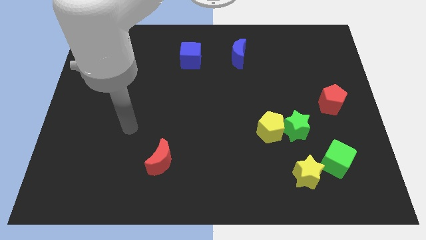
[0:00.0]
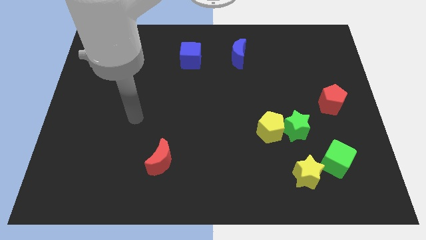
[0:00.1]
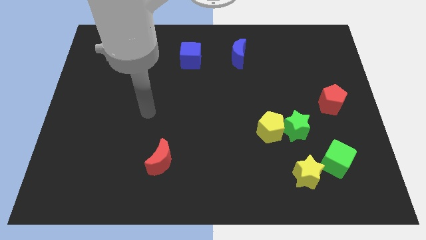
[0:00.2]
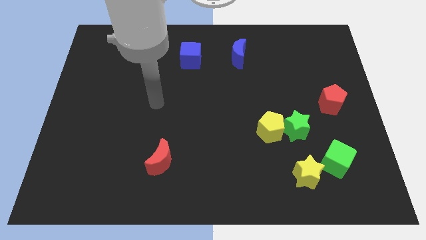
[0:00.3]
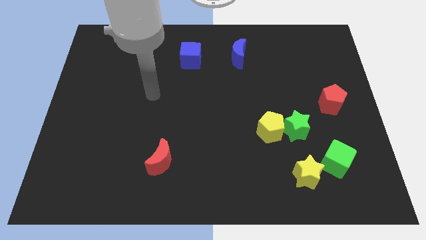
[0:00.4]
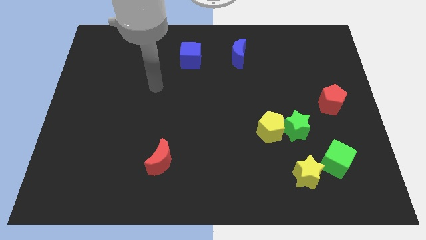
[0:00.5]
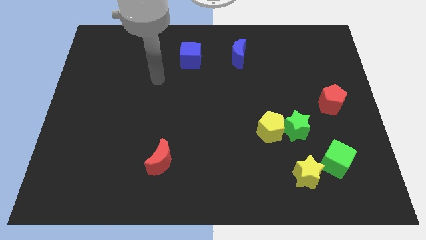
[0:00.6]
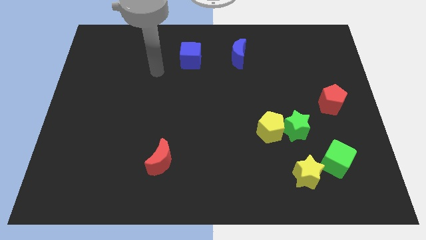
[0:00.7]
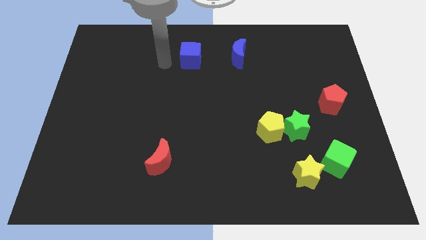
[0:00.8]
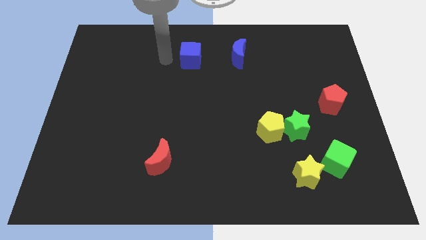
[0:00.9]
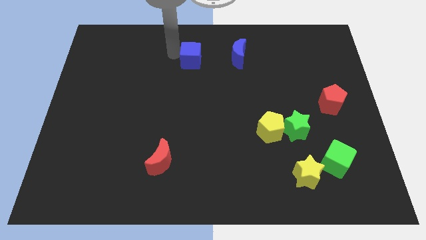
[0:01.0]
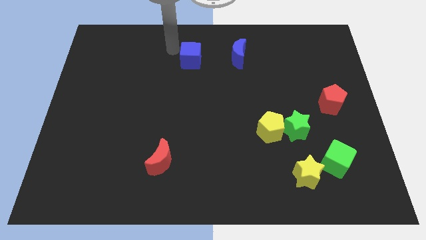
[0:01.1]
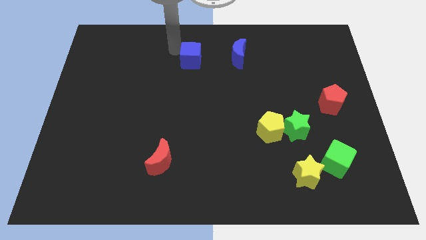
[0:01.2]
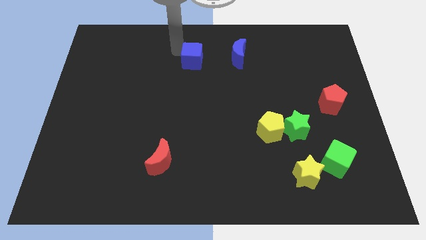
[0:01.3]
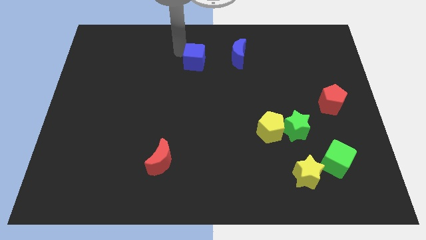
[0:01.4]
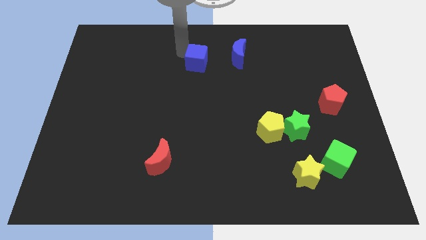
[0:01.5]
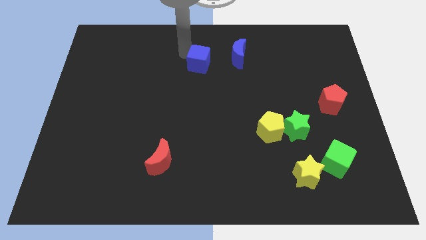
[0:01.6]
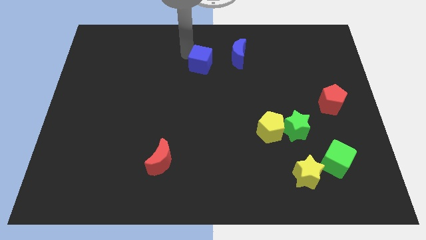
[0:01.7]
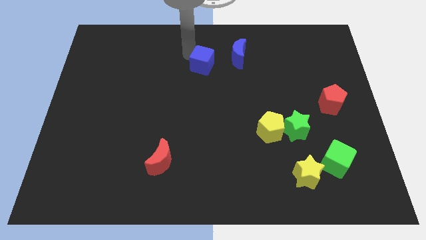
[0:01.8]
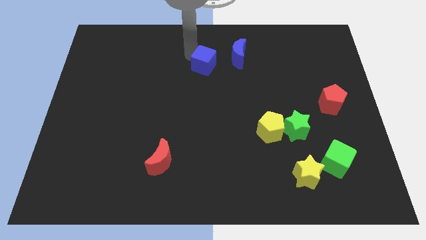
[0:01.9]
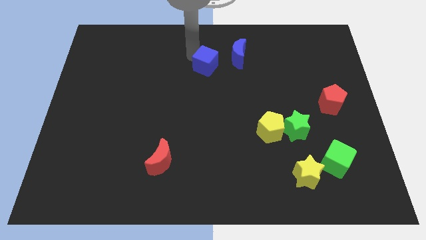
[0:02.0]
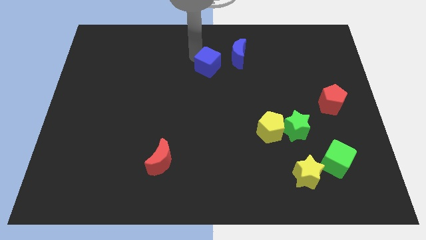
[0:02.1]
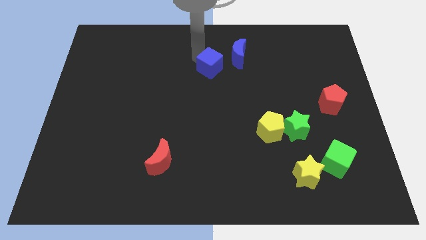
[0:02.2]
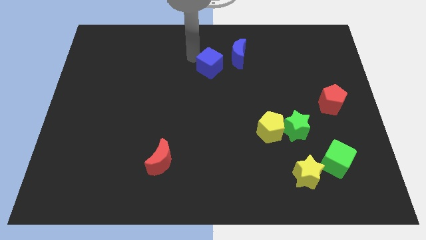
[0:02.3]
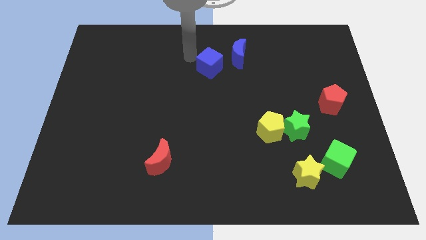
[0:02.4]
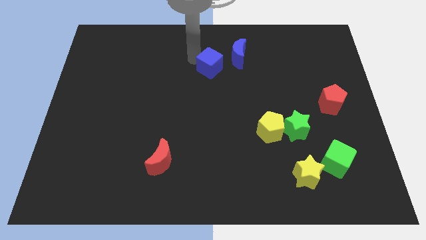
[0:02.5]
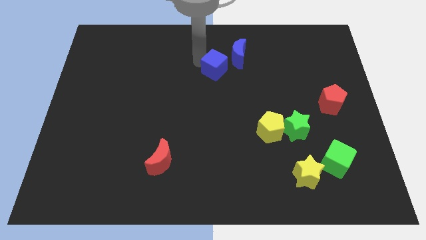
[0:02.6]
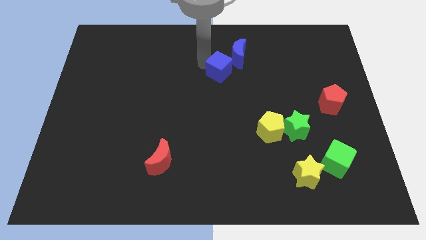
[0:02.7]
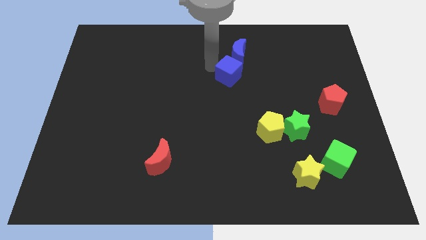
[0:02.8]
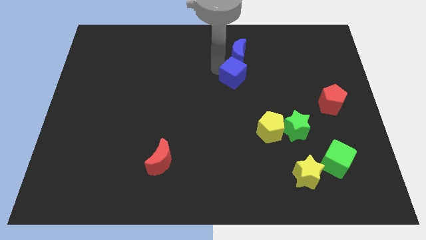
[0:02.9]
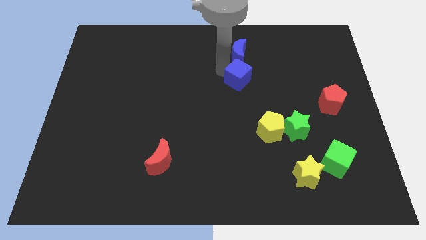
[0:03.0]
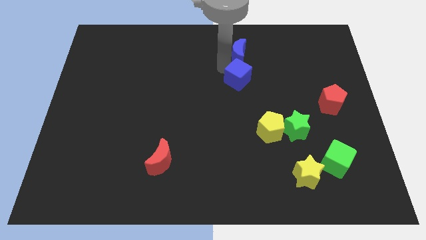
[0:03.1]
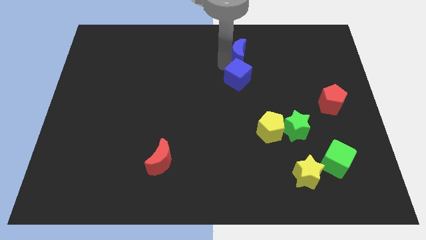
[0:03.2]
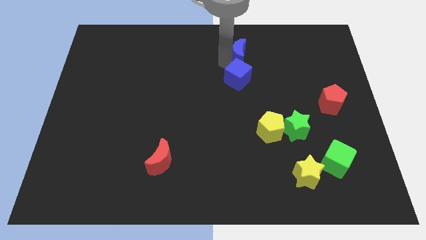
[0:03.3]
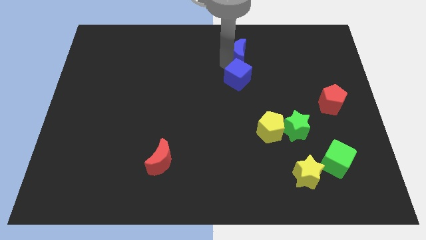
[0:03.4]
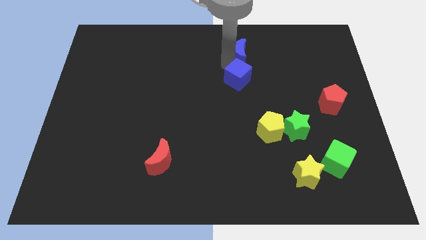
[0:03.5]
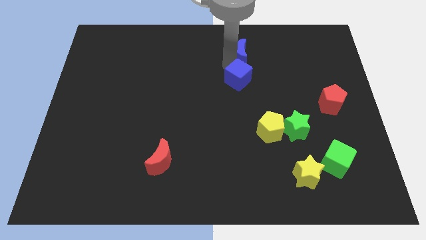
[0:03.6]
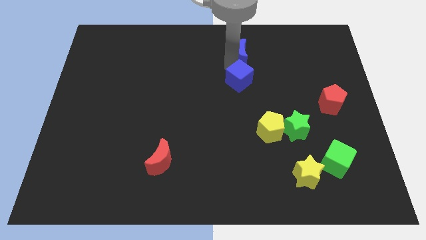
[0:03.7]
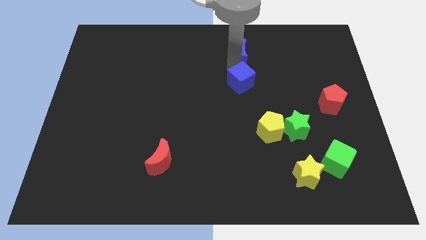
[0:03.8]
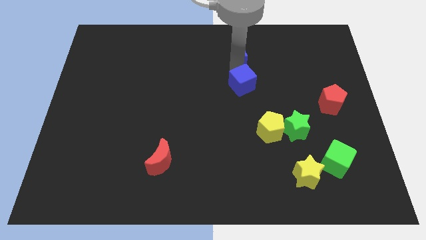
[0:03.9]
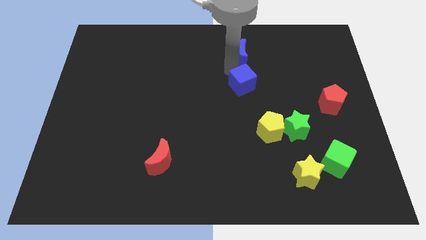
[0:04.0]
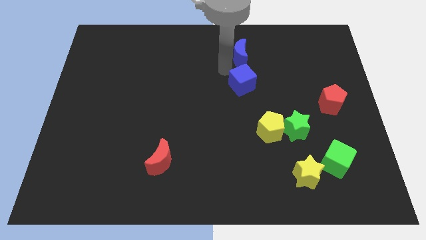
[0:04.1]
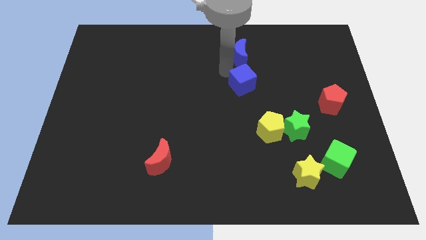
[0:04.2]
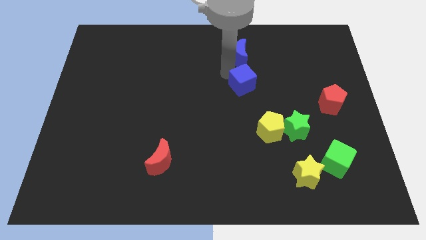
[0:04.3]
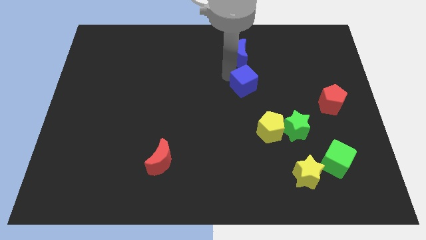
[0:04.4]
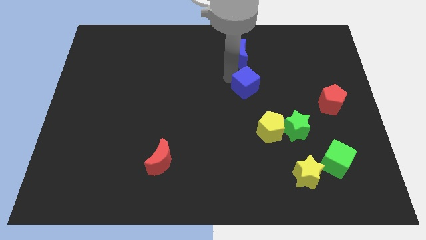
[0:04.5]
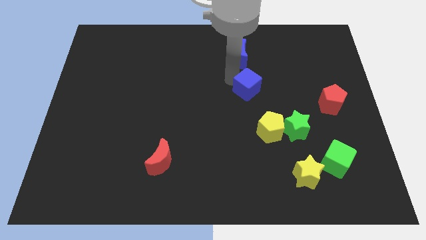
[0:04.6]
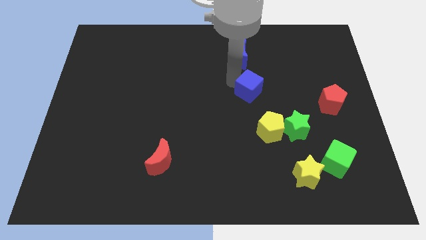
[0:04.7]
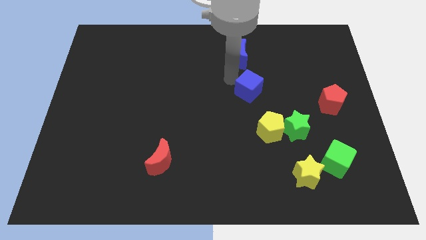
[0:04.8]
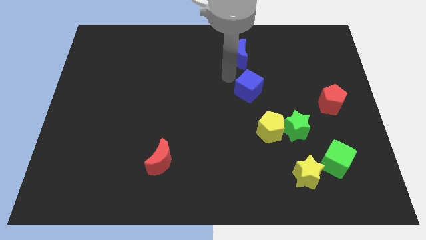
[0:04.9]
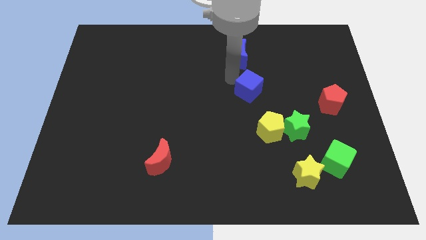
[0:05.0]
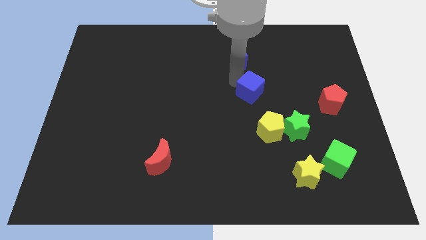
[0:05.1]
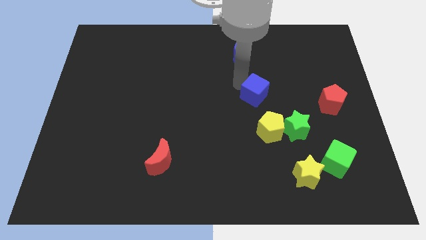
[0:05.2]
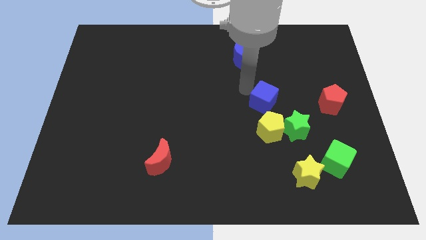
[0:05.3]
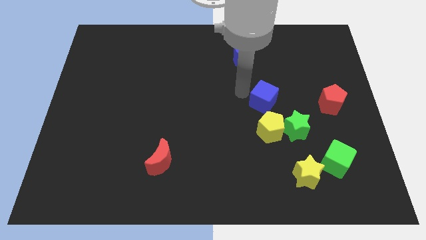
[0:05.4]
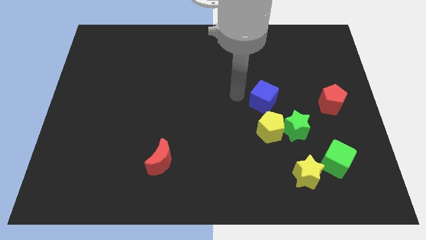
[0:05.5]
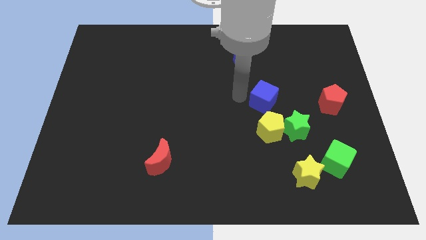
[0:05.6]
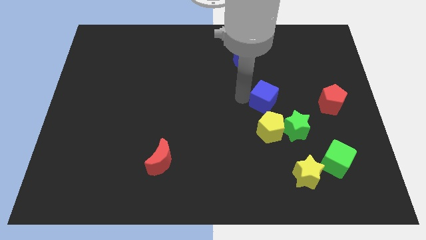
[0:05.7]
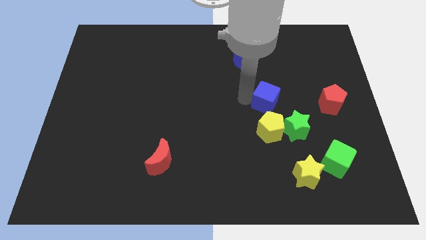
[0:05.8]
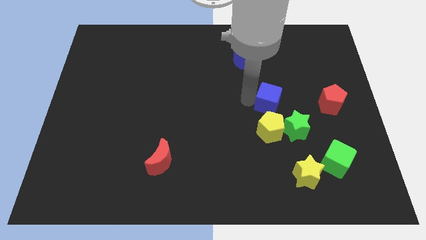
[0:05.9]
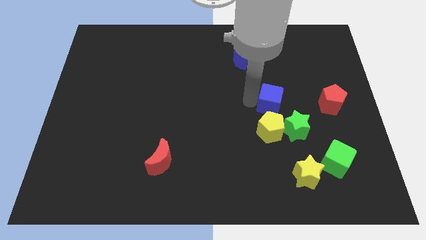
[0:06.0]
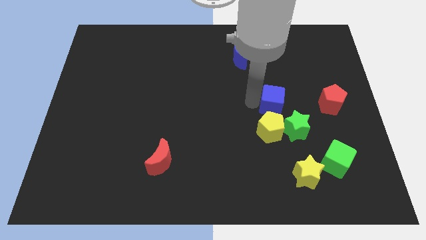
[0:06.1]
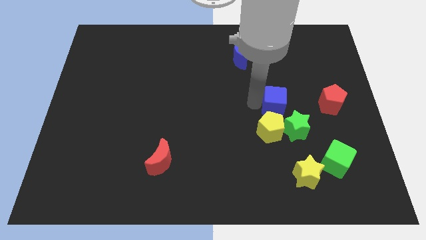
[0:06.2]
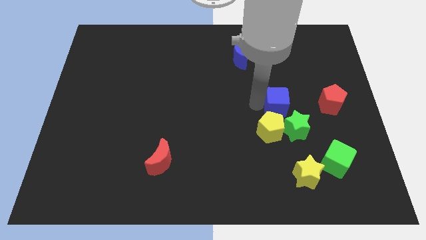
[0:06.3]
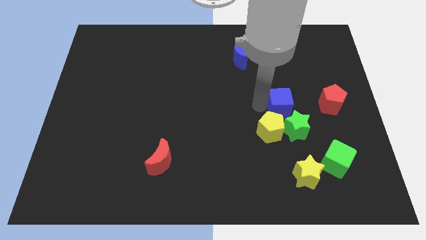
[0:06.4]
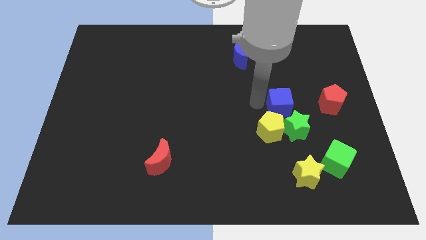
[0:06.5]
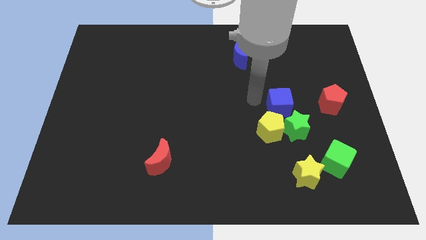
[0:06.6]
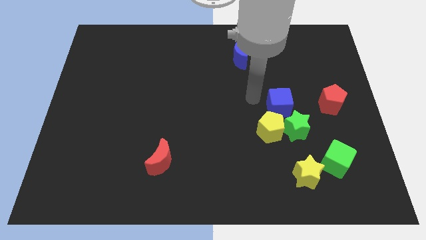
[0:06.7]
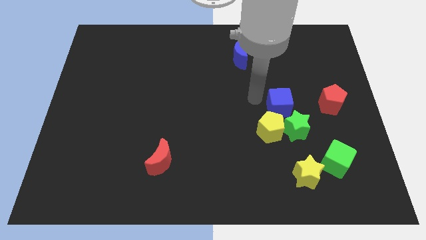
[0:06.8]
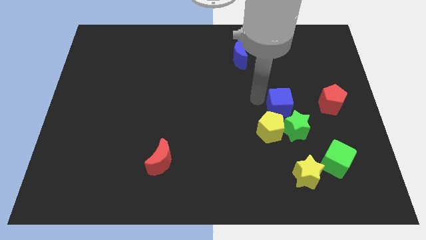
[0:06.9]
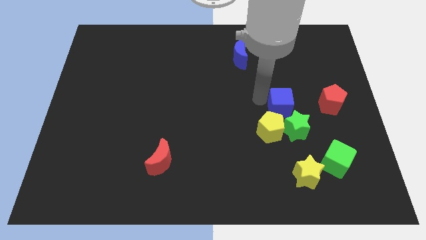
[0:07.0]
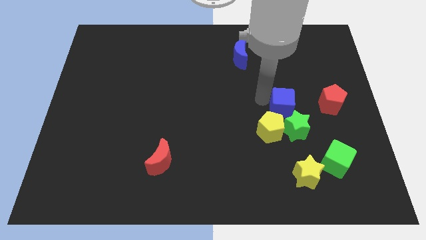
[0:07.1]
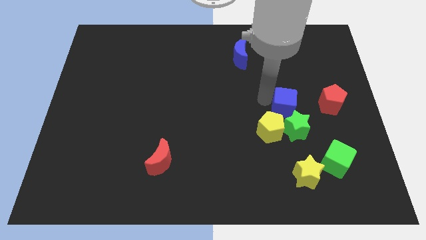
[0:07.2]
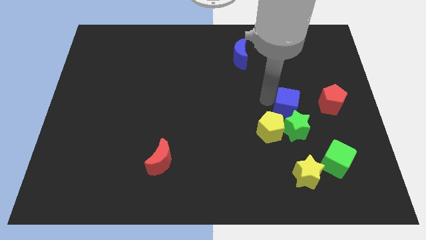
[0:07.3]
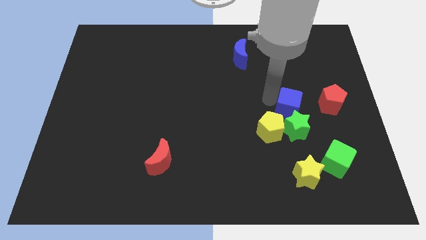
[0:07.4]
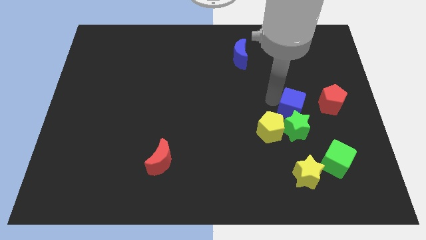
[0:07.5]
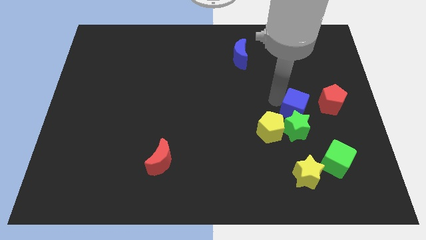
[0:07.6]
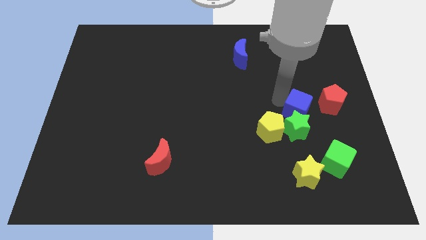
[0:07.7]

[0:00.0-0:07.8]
move the blue cube to the bottom left of the red pentagon
